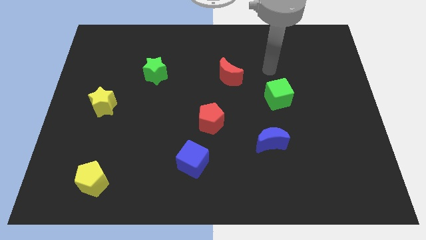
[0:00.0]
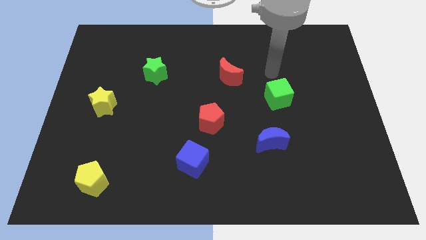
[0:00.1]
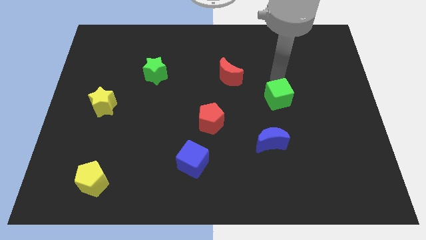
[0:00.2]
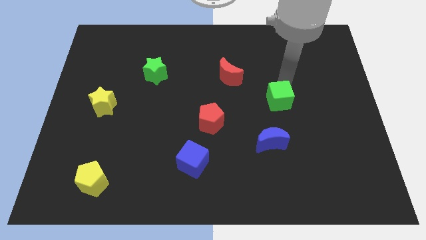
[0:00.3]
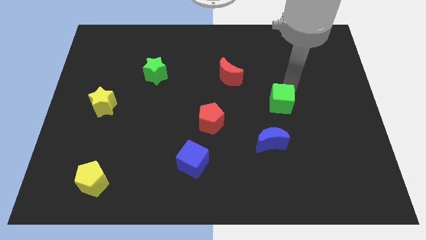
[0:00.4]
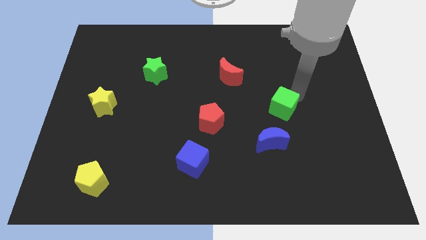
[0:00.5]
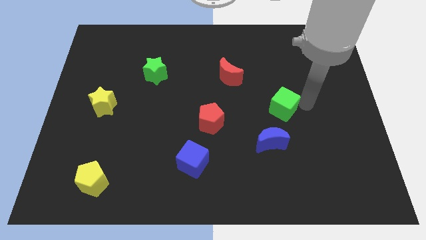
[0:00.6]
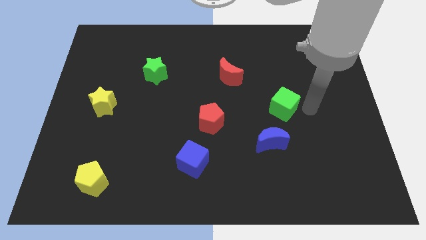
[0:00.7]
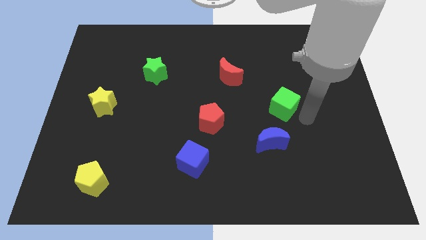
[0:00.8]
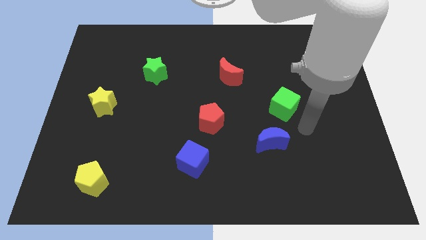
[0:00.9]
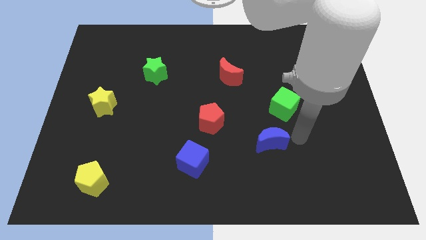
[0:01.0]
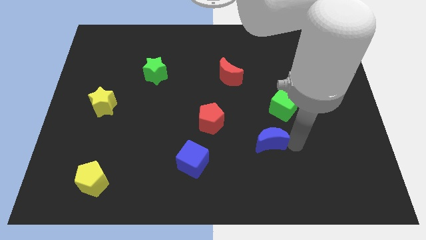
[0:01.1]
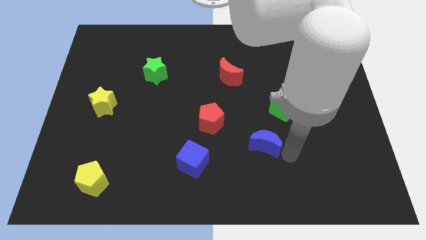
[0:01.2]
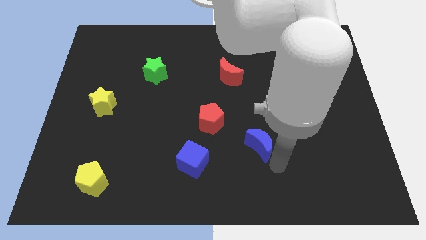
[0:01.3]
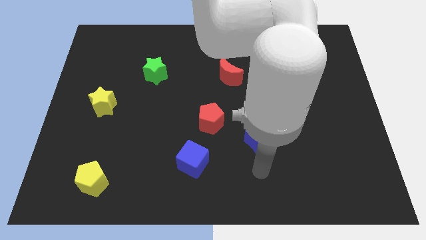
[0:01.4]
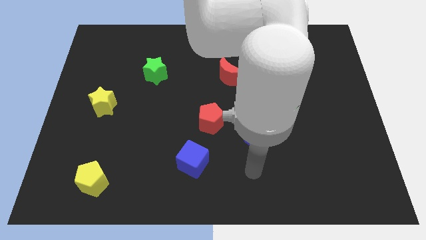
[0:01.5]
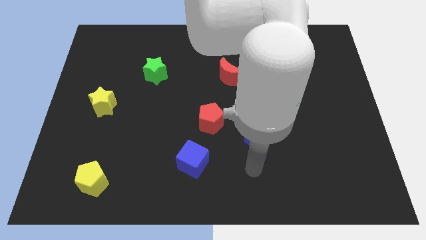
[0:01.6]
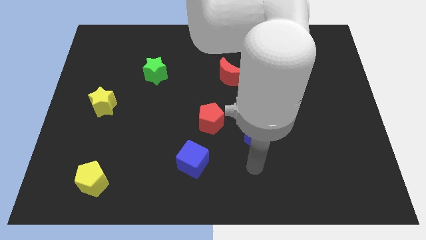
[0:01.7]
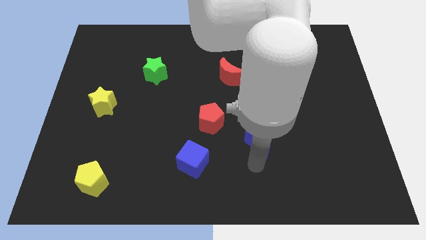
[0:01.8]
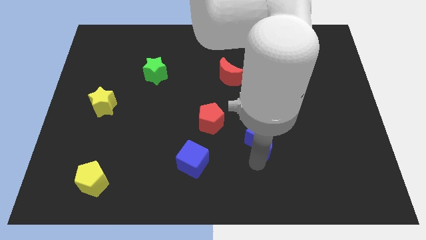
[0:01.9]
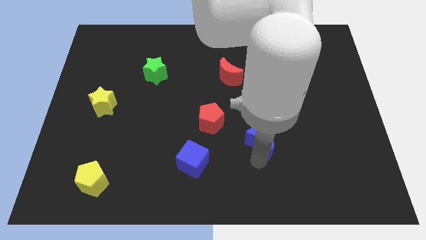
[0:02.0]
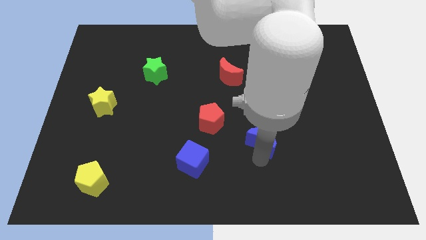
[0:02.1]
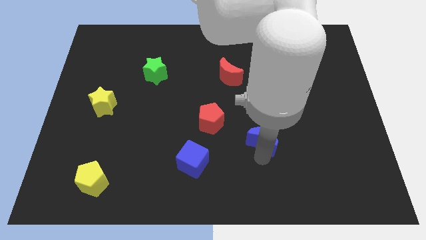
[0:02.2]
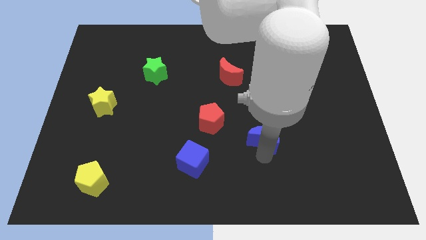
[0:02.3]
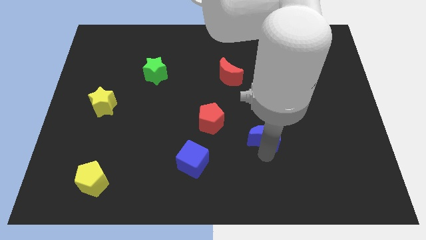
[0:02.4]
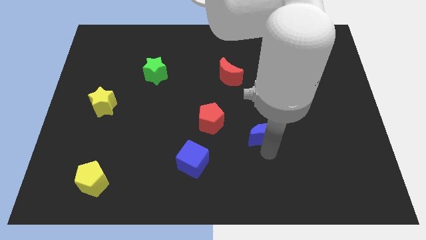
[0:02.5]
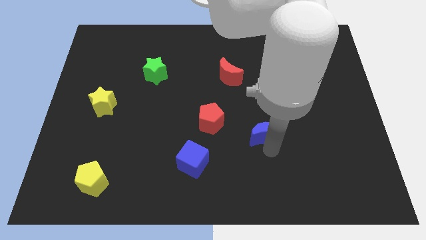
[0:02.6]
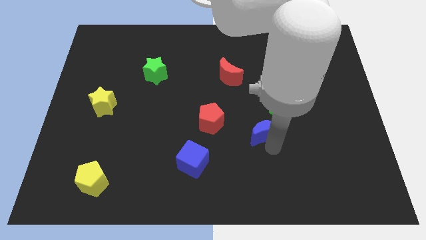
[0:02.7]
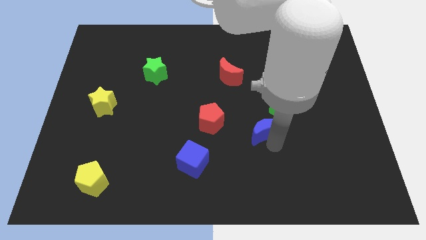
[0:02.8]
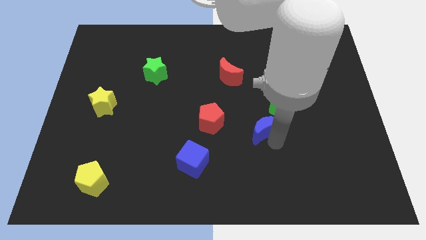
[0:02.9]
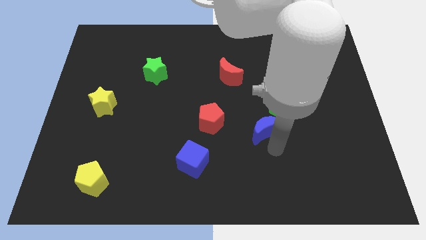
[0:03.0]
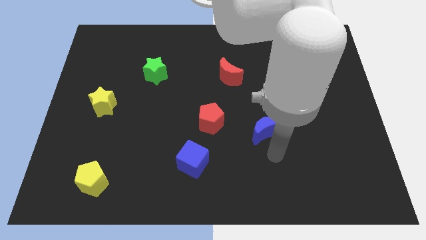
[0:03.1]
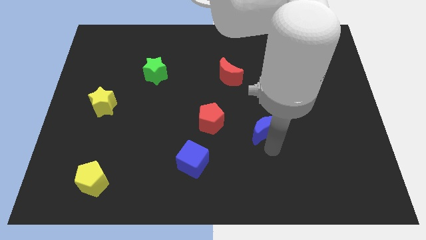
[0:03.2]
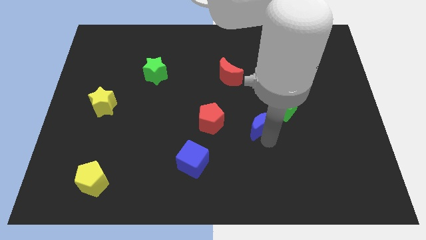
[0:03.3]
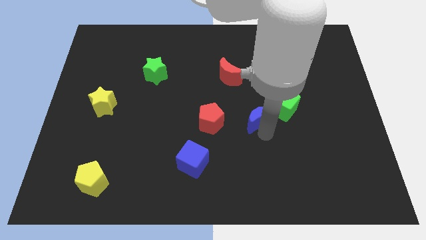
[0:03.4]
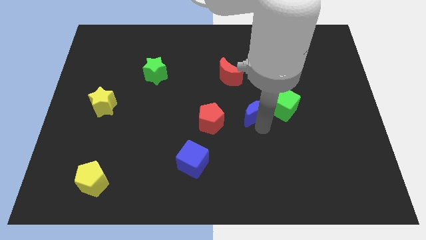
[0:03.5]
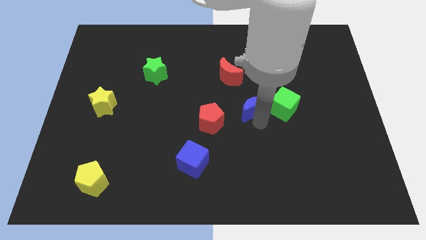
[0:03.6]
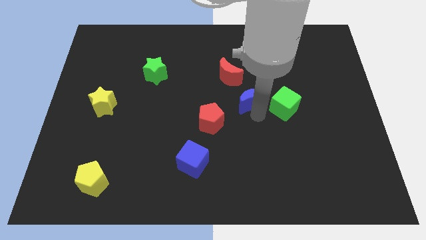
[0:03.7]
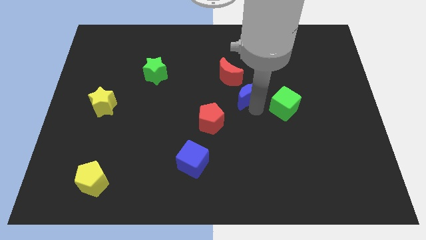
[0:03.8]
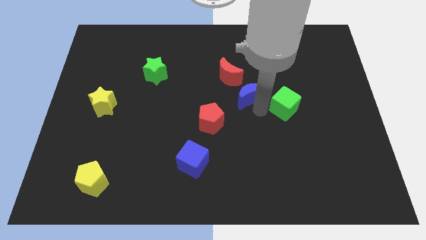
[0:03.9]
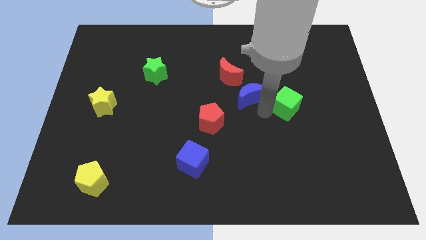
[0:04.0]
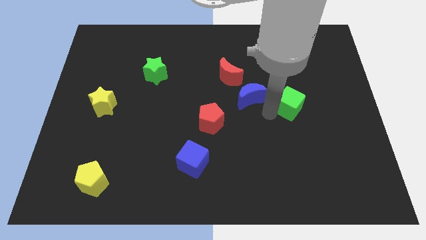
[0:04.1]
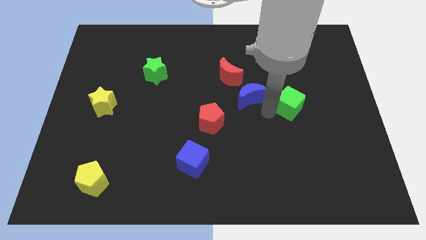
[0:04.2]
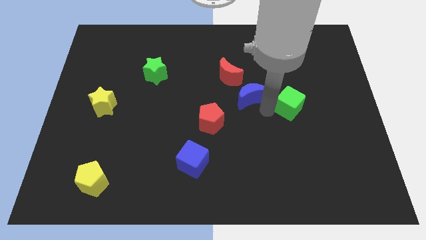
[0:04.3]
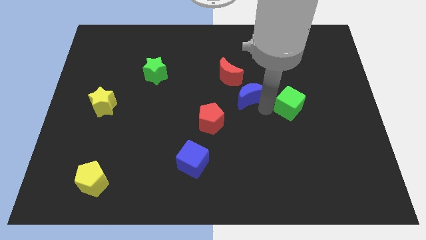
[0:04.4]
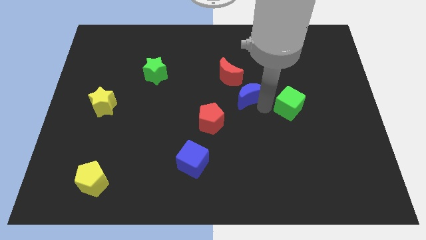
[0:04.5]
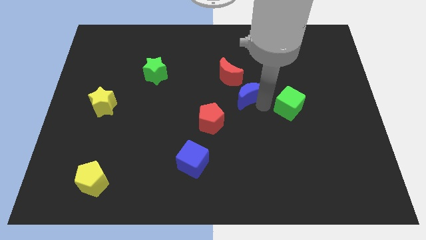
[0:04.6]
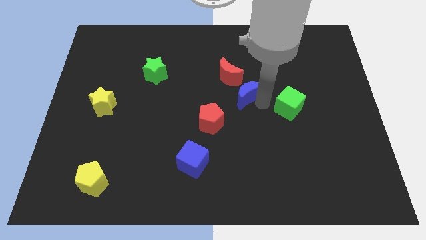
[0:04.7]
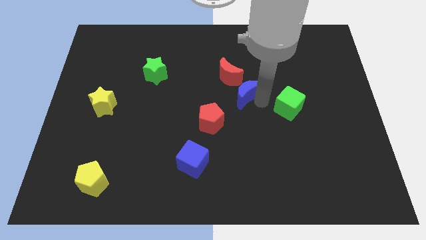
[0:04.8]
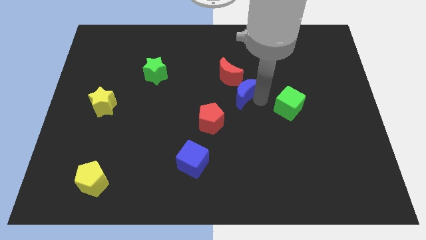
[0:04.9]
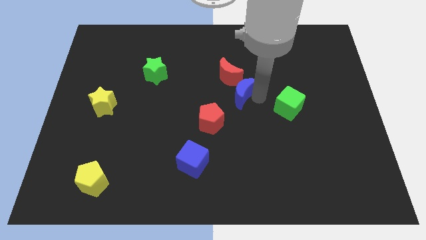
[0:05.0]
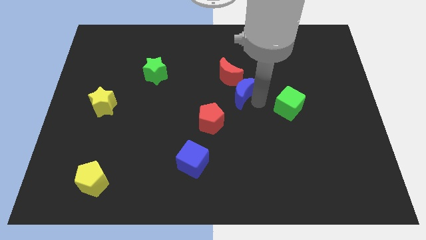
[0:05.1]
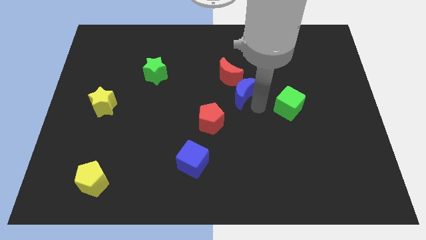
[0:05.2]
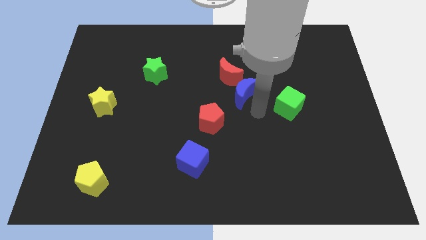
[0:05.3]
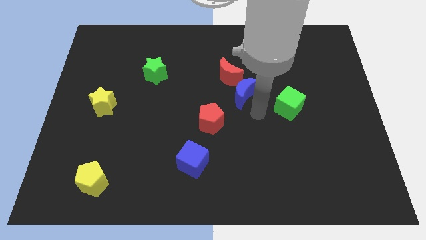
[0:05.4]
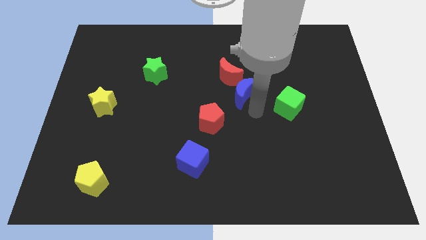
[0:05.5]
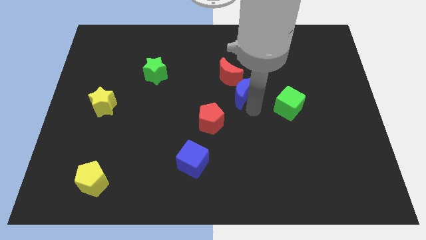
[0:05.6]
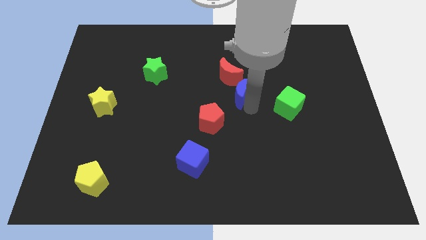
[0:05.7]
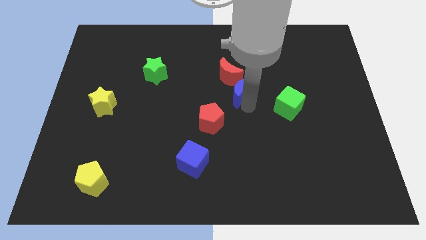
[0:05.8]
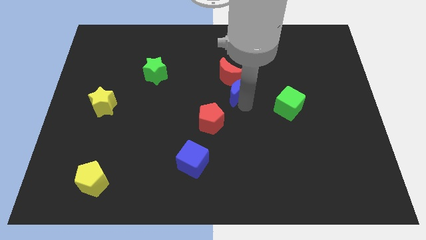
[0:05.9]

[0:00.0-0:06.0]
put the blue moon towards the red moon

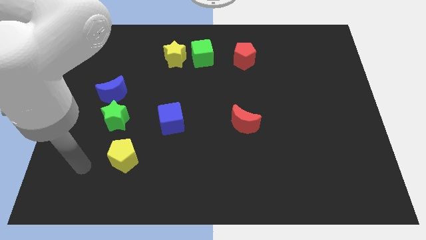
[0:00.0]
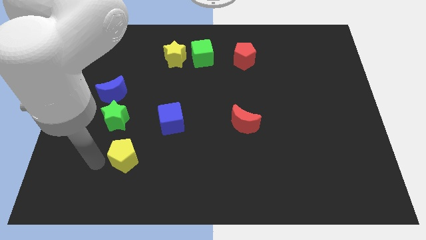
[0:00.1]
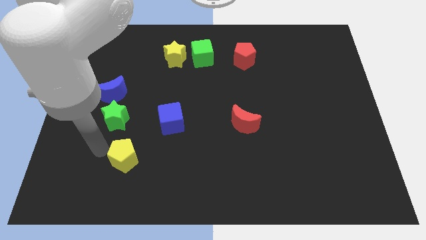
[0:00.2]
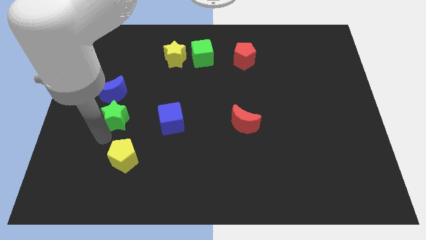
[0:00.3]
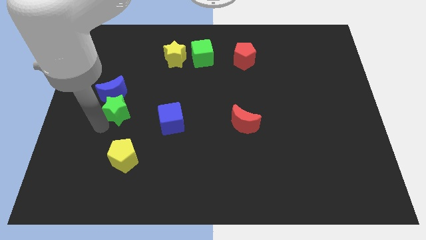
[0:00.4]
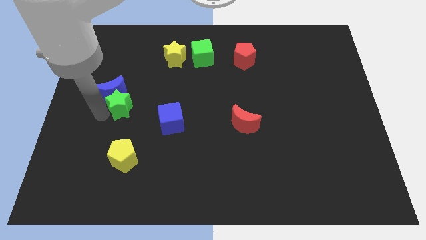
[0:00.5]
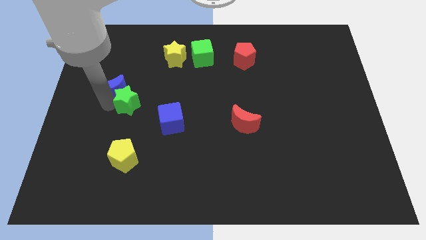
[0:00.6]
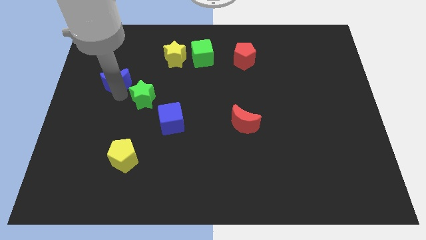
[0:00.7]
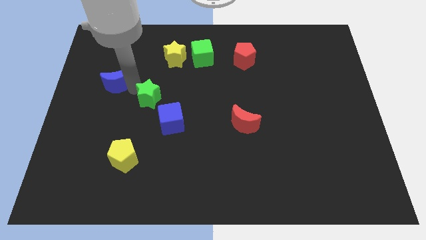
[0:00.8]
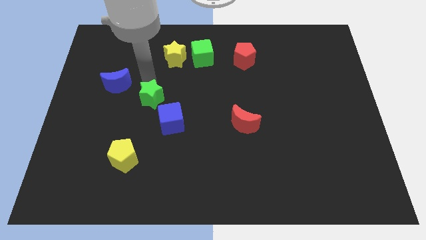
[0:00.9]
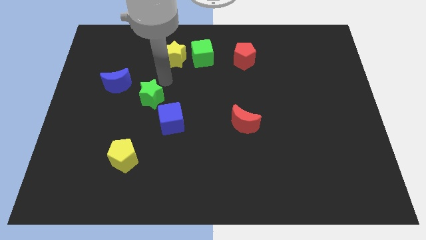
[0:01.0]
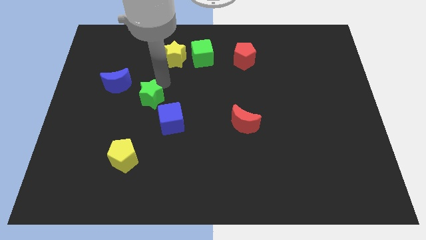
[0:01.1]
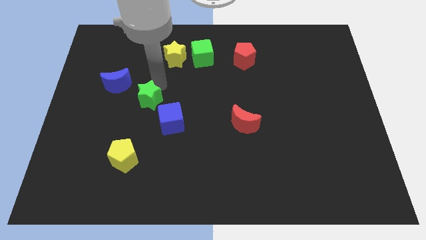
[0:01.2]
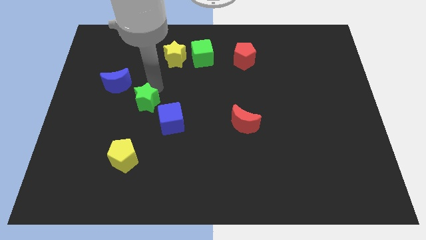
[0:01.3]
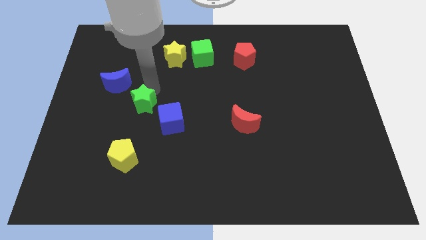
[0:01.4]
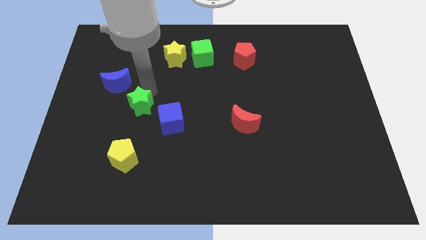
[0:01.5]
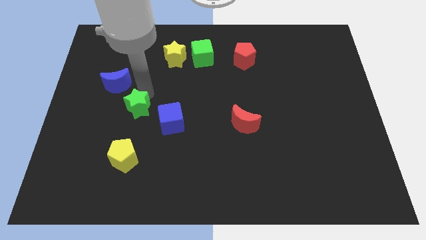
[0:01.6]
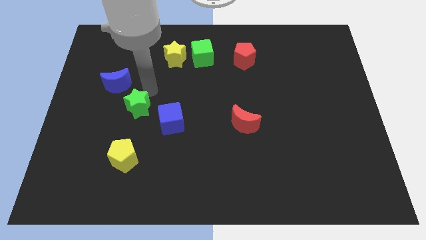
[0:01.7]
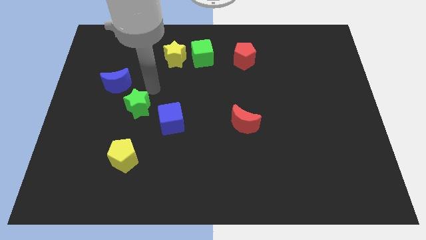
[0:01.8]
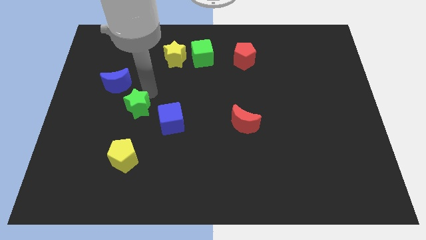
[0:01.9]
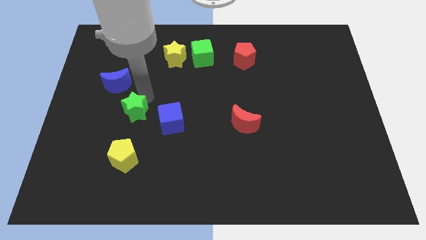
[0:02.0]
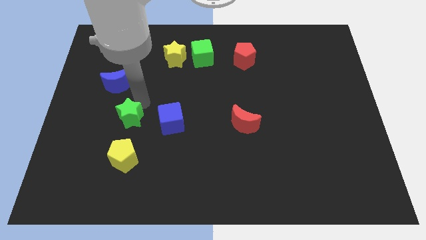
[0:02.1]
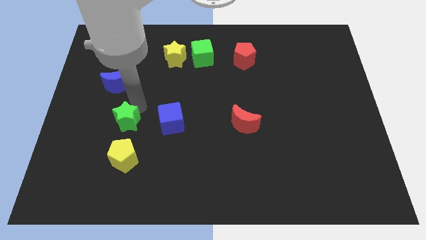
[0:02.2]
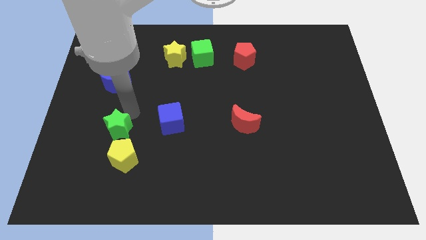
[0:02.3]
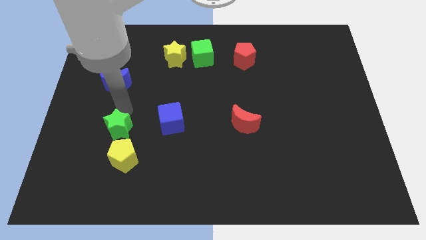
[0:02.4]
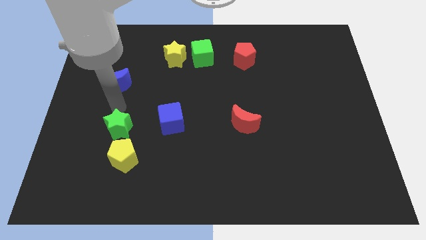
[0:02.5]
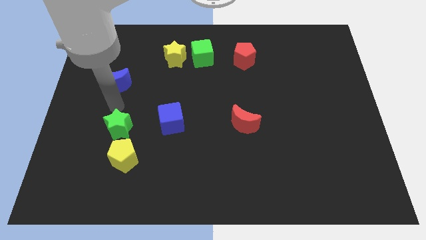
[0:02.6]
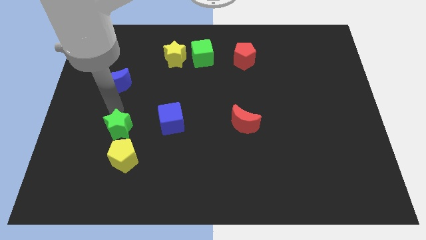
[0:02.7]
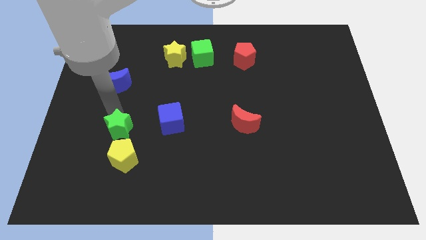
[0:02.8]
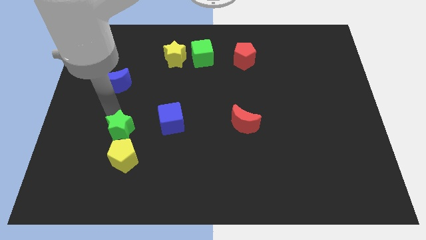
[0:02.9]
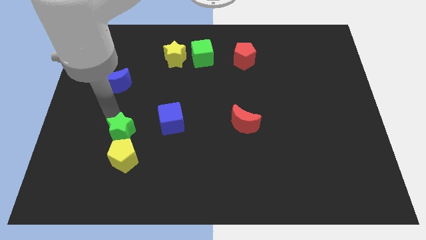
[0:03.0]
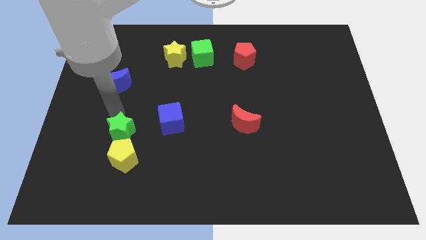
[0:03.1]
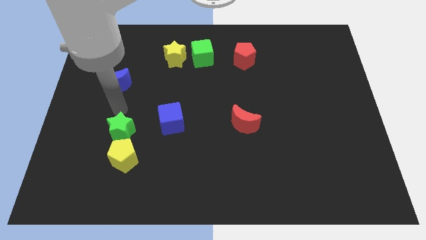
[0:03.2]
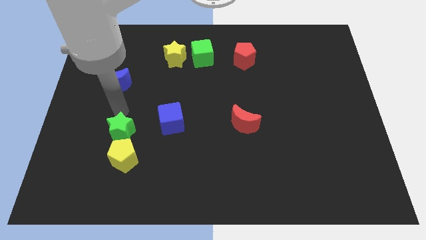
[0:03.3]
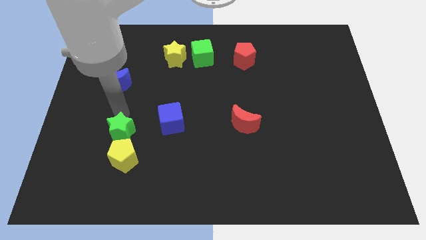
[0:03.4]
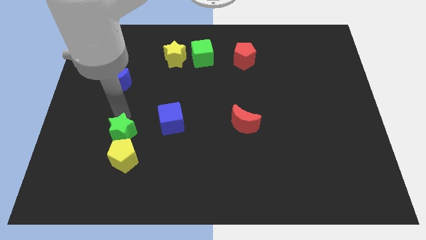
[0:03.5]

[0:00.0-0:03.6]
put the green star to the yellow pentagon
